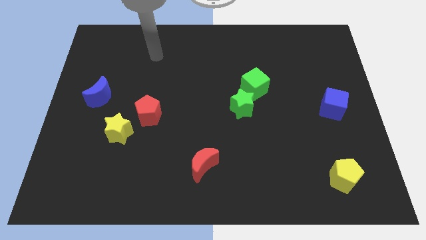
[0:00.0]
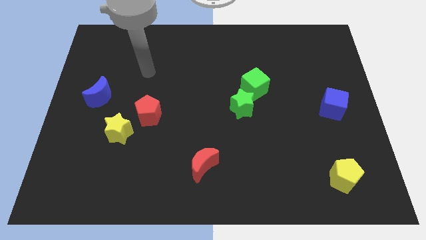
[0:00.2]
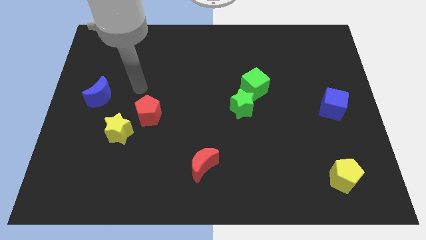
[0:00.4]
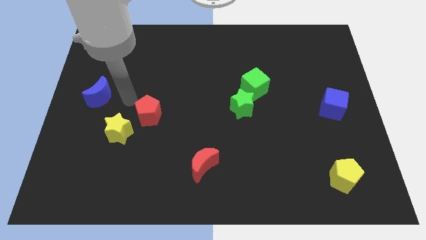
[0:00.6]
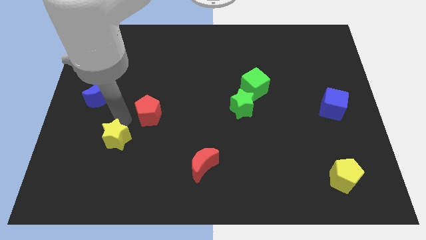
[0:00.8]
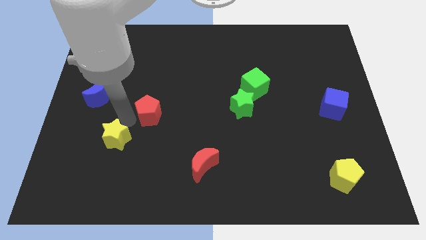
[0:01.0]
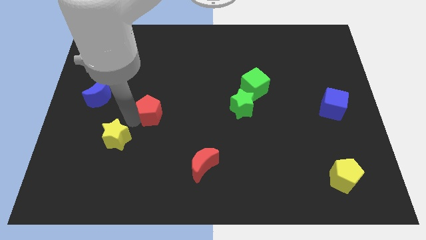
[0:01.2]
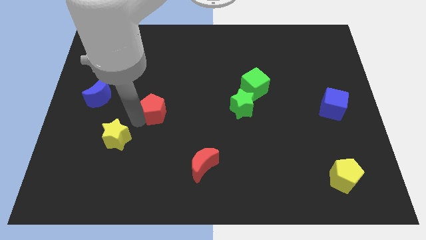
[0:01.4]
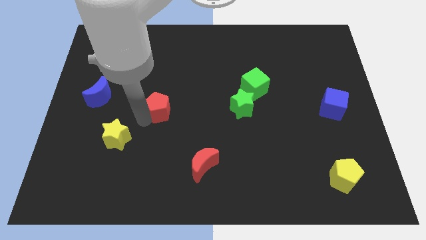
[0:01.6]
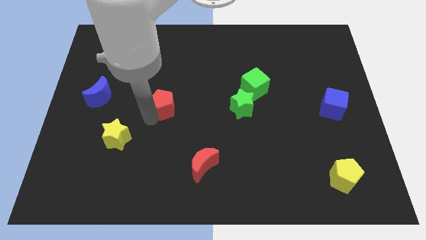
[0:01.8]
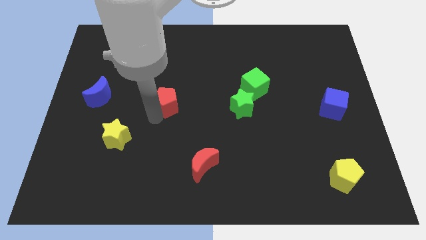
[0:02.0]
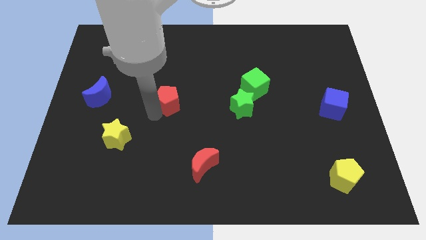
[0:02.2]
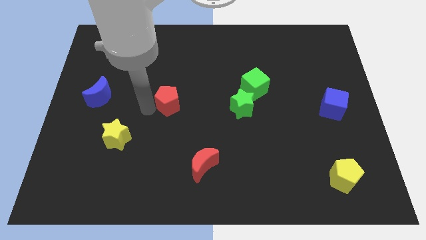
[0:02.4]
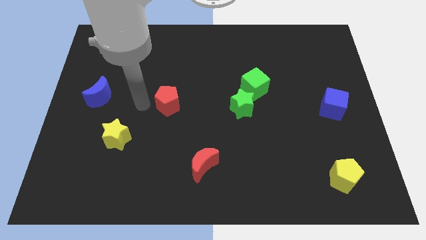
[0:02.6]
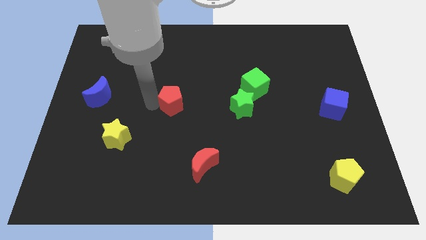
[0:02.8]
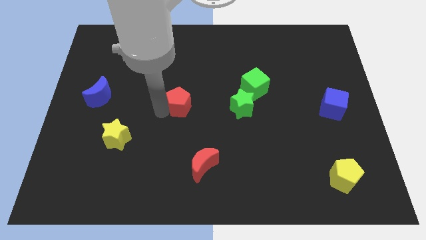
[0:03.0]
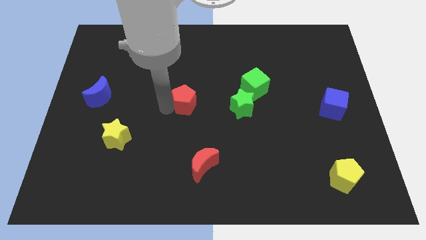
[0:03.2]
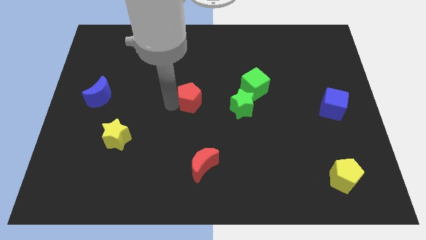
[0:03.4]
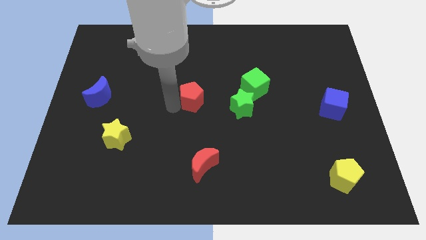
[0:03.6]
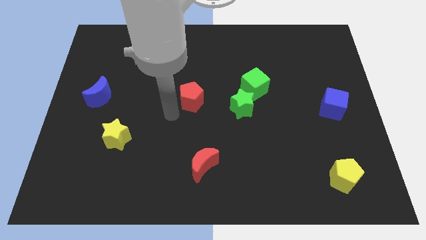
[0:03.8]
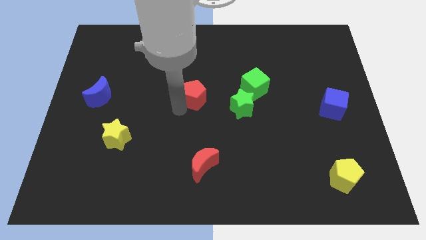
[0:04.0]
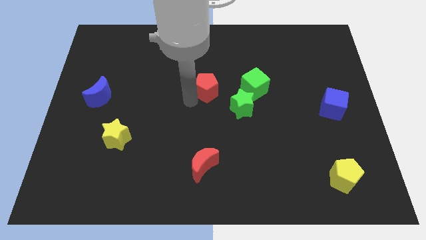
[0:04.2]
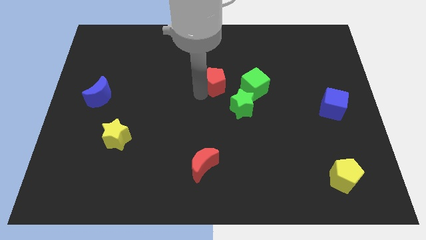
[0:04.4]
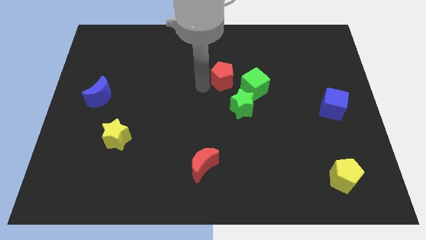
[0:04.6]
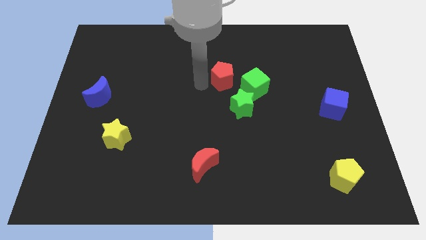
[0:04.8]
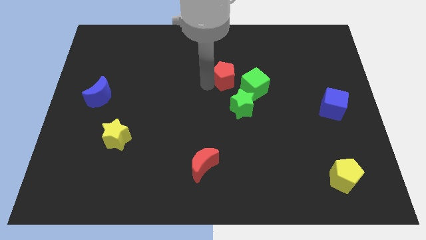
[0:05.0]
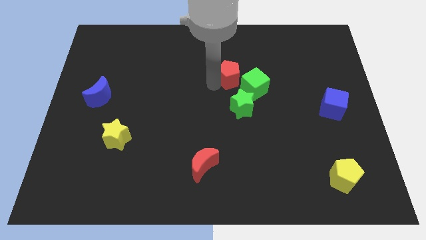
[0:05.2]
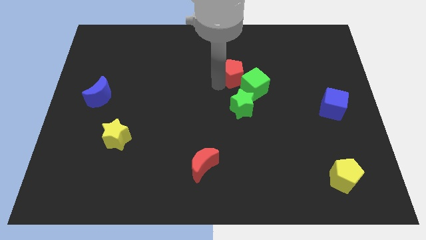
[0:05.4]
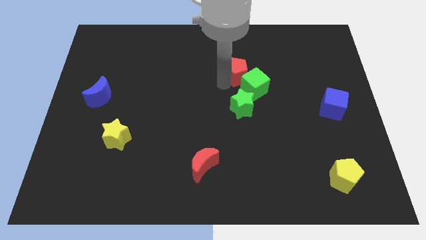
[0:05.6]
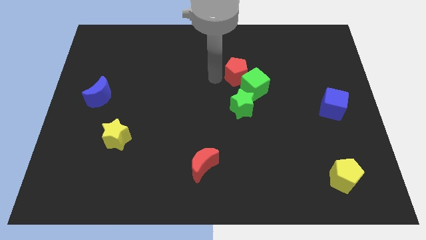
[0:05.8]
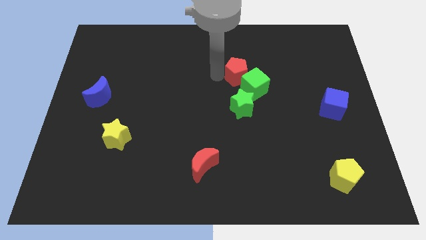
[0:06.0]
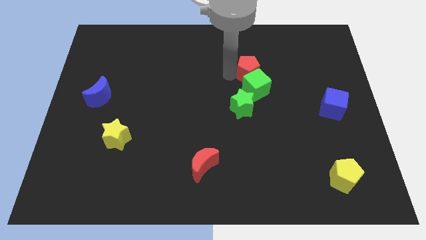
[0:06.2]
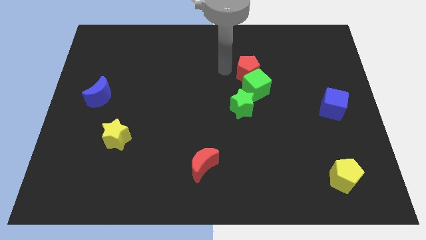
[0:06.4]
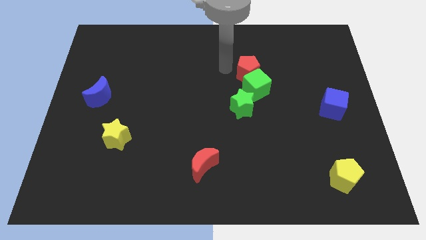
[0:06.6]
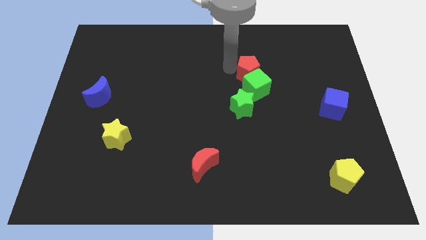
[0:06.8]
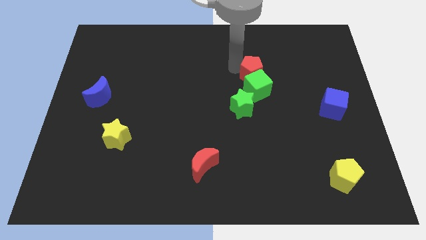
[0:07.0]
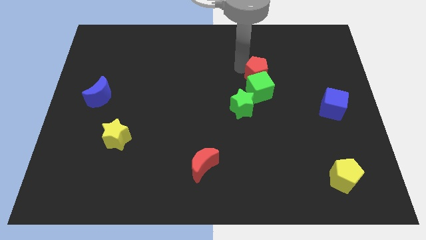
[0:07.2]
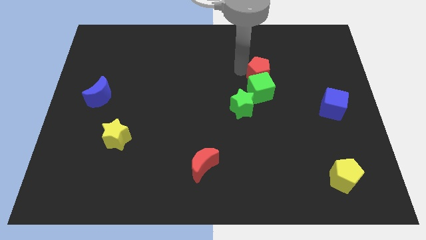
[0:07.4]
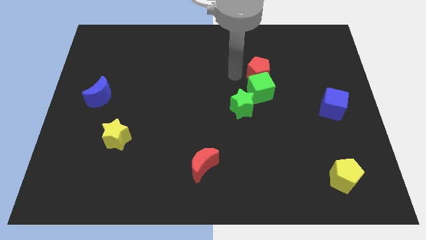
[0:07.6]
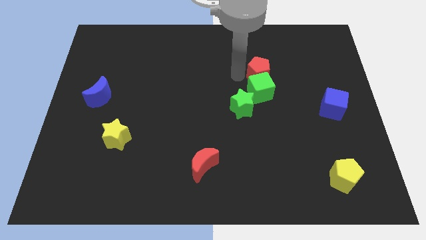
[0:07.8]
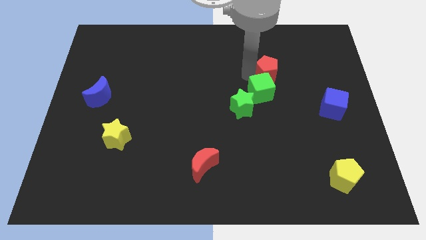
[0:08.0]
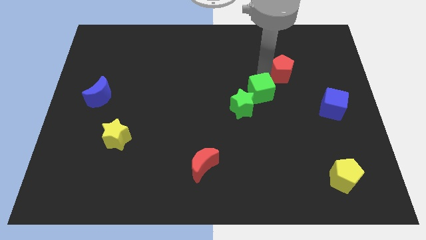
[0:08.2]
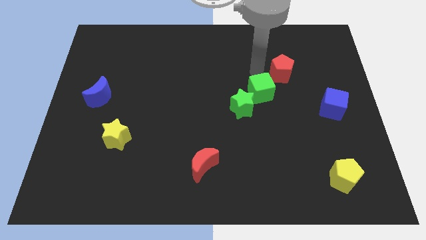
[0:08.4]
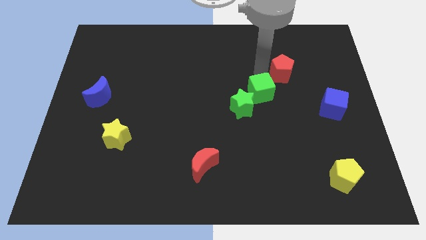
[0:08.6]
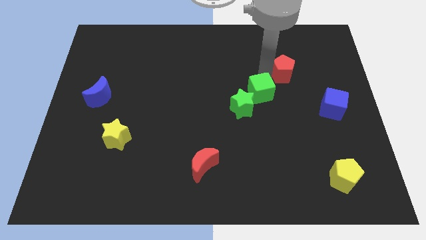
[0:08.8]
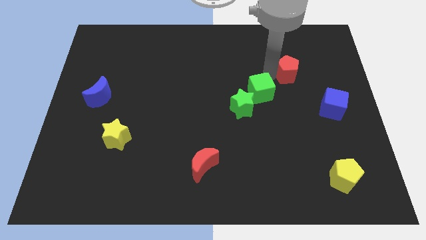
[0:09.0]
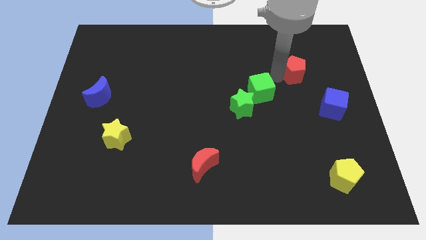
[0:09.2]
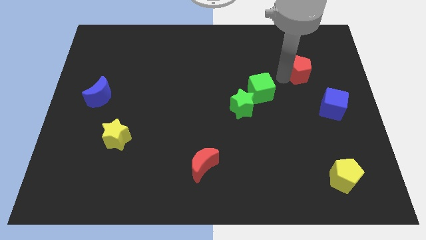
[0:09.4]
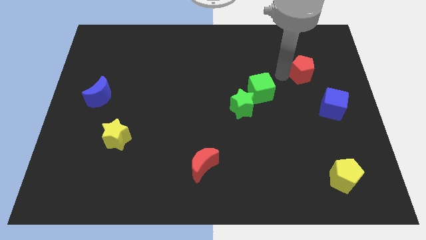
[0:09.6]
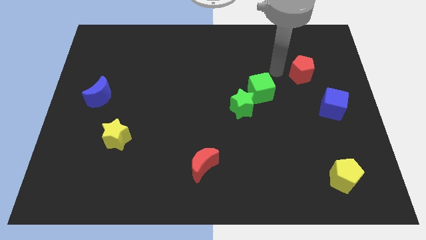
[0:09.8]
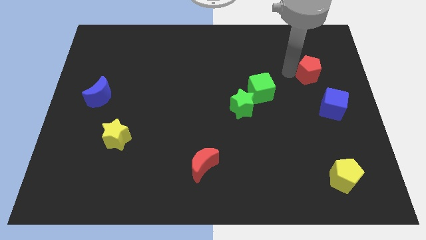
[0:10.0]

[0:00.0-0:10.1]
move the red pentagon to the top of the blue cube

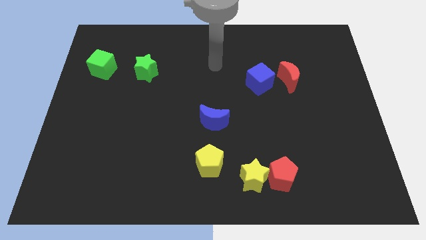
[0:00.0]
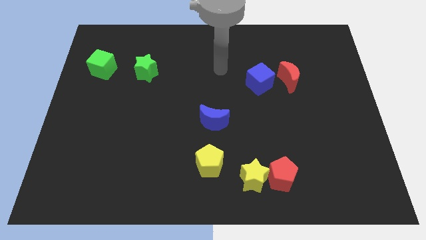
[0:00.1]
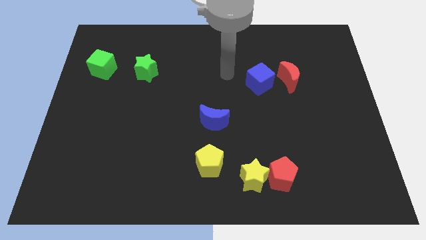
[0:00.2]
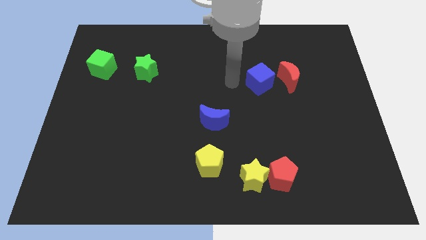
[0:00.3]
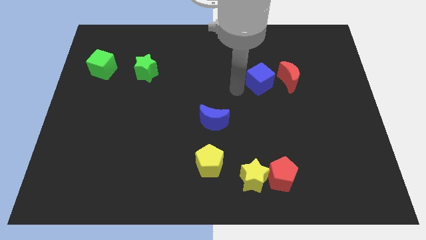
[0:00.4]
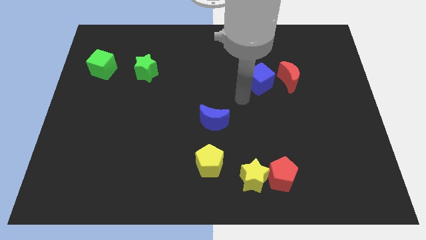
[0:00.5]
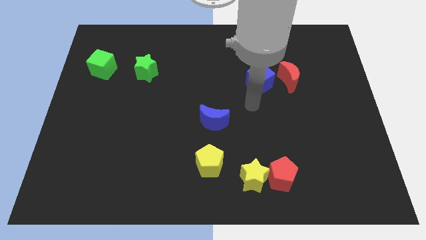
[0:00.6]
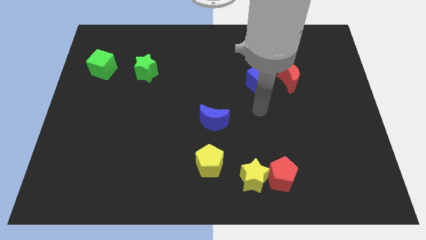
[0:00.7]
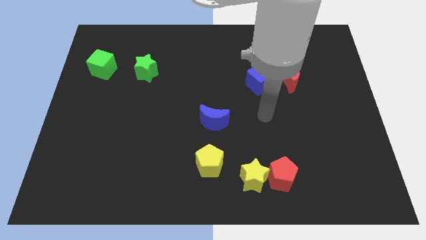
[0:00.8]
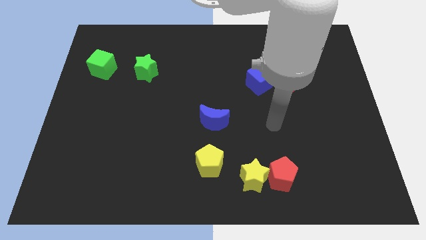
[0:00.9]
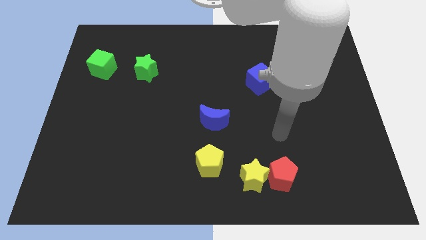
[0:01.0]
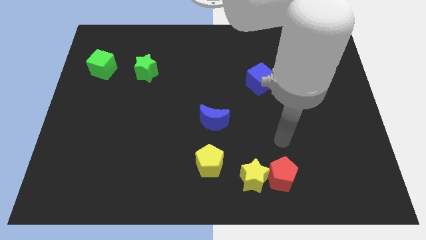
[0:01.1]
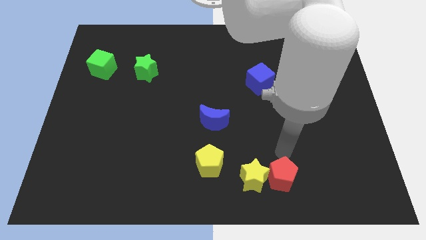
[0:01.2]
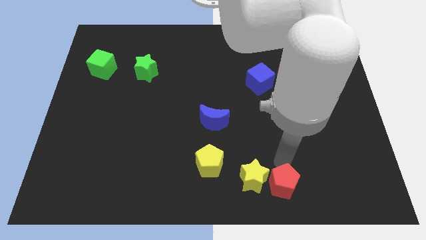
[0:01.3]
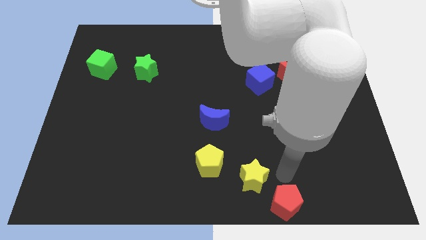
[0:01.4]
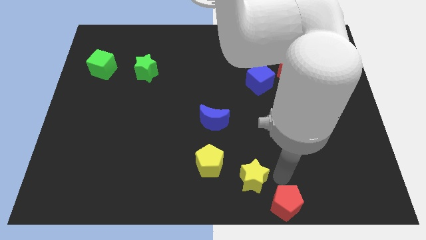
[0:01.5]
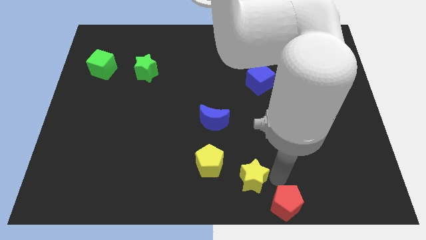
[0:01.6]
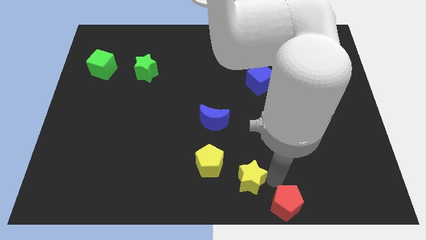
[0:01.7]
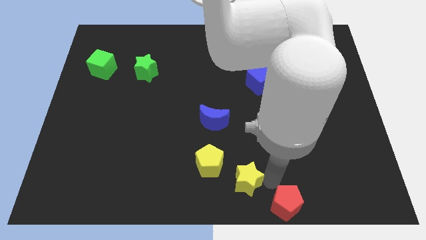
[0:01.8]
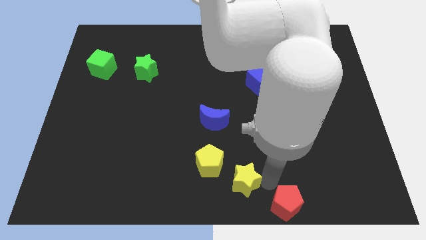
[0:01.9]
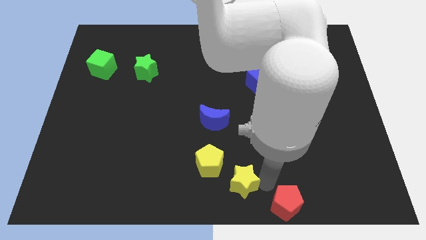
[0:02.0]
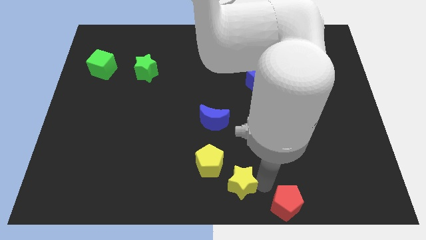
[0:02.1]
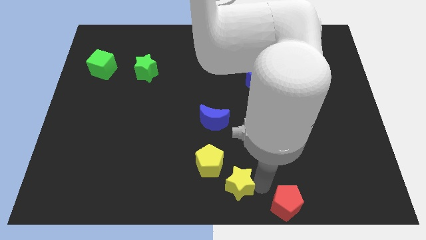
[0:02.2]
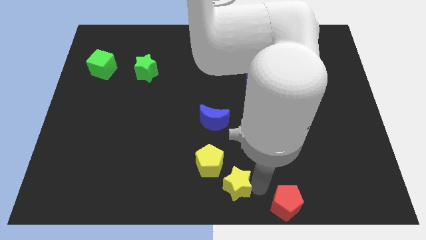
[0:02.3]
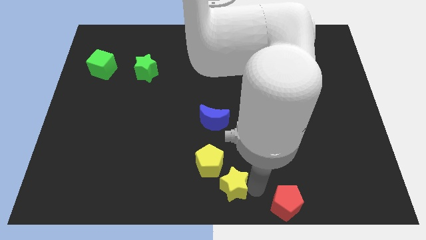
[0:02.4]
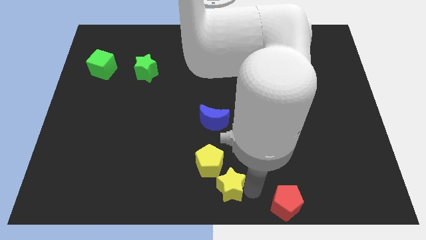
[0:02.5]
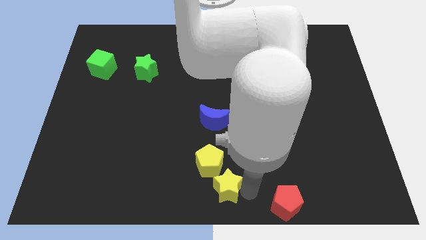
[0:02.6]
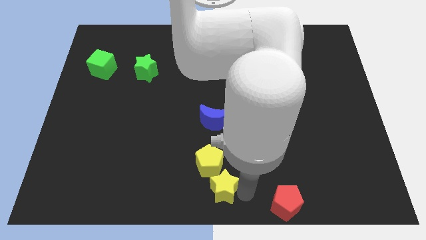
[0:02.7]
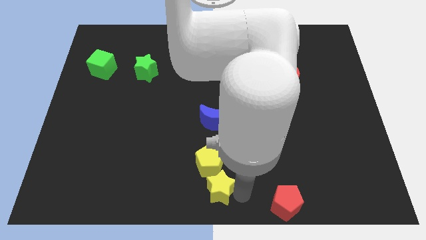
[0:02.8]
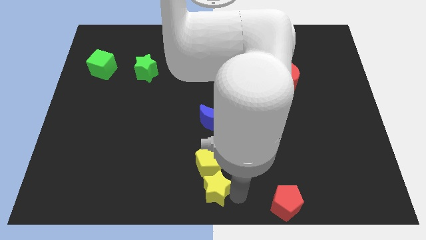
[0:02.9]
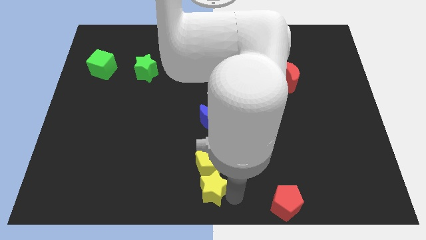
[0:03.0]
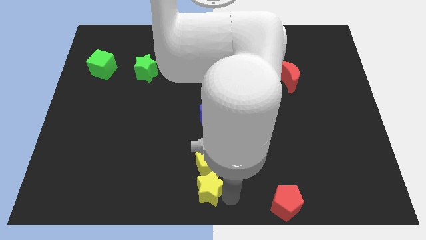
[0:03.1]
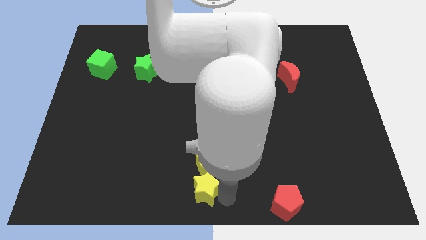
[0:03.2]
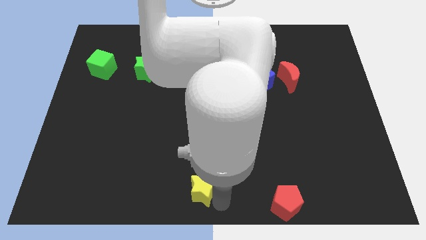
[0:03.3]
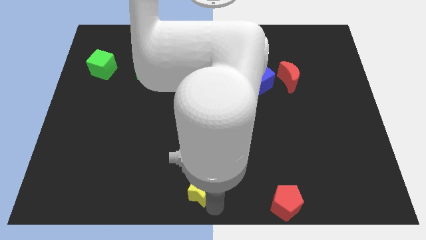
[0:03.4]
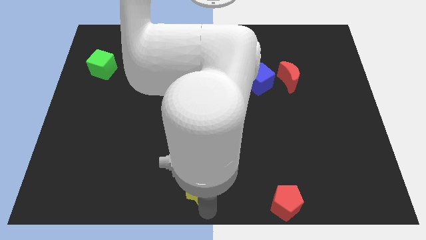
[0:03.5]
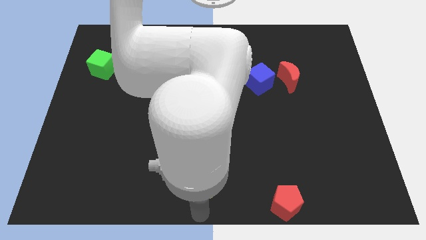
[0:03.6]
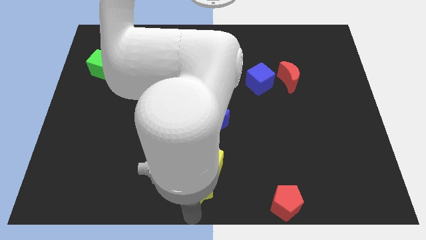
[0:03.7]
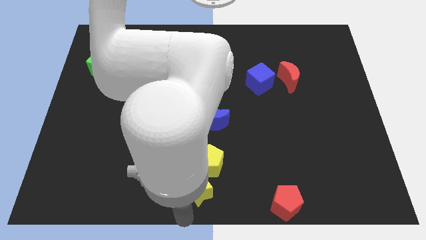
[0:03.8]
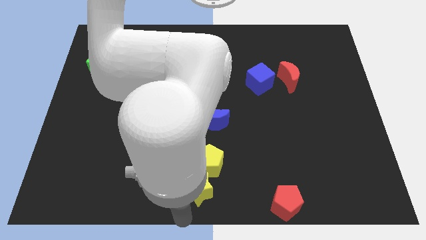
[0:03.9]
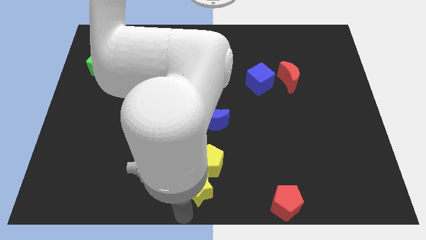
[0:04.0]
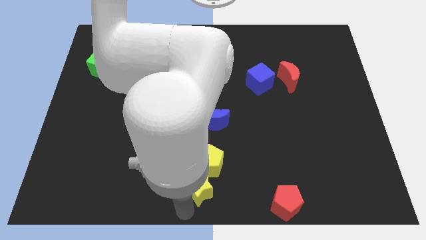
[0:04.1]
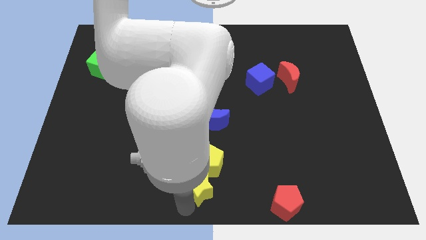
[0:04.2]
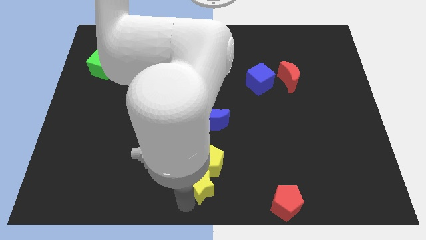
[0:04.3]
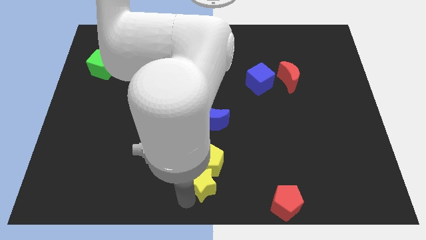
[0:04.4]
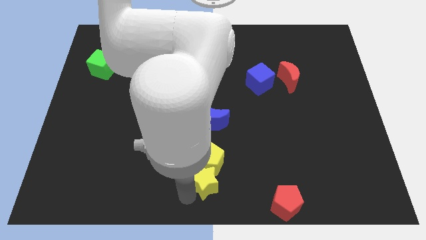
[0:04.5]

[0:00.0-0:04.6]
slide the yellow star to the bottom of the blue moon
